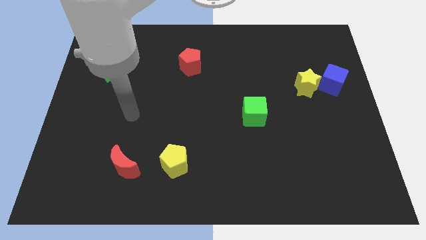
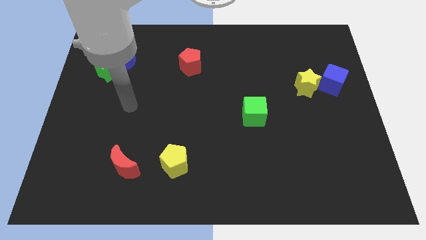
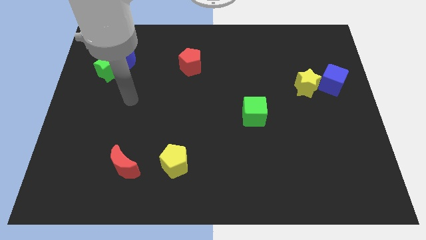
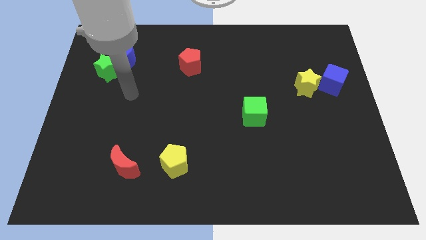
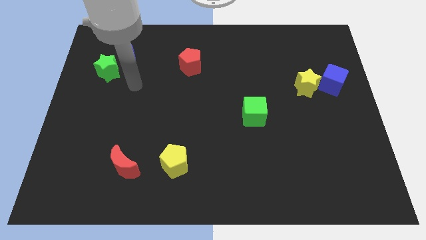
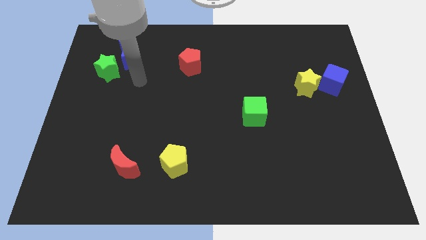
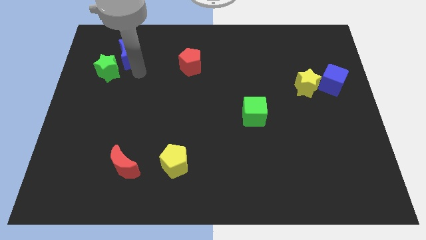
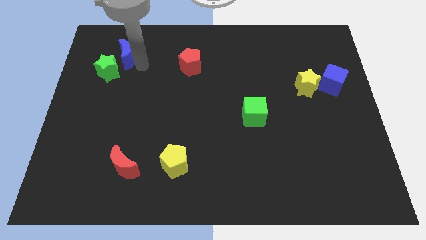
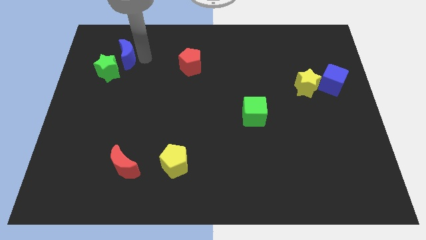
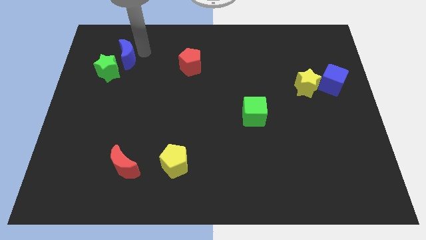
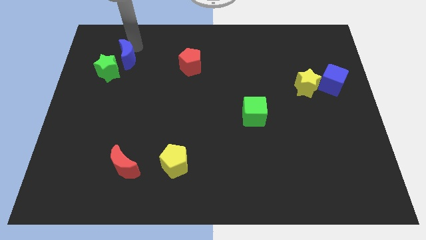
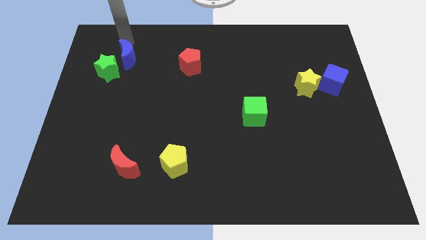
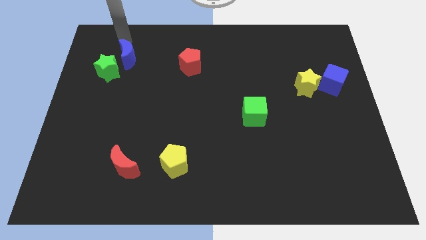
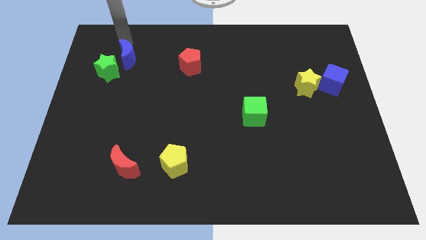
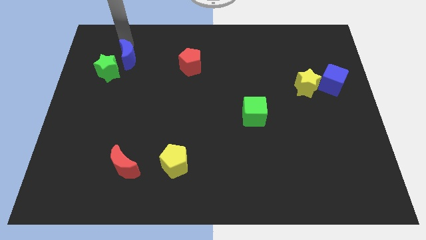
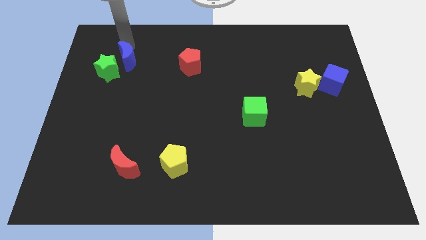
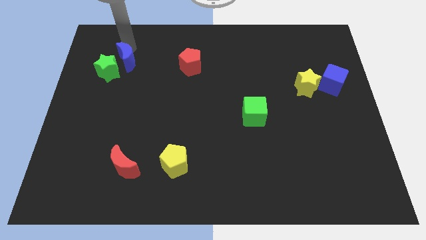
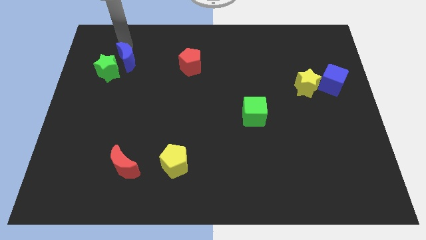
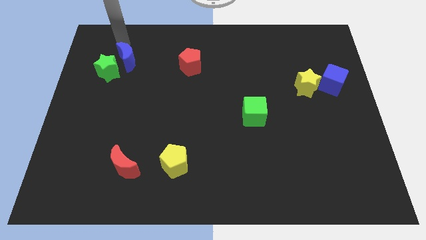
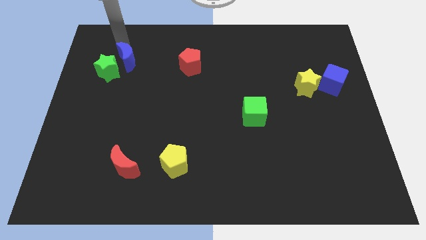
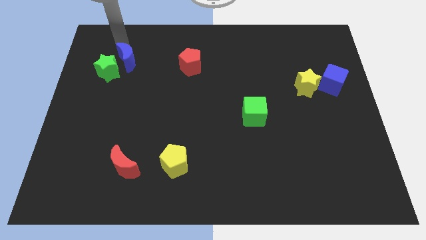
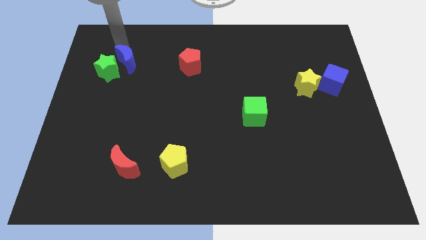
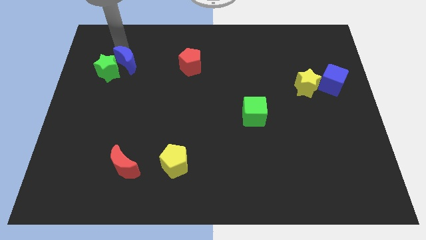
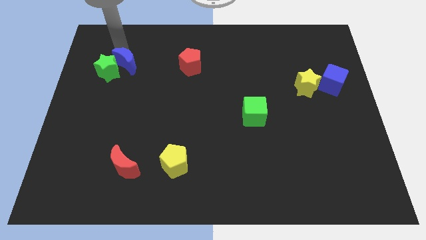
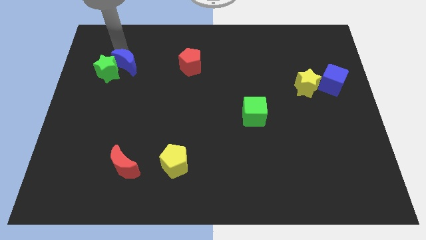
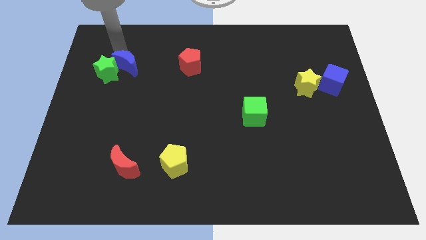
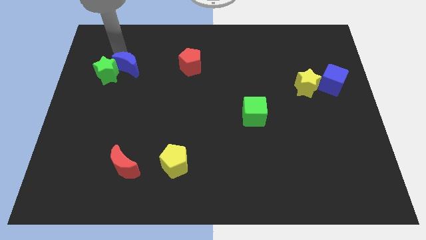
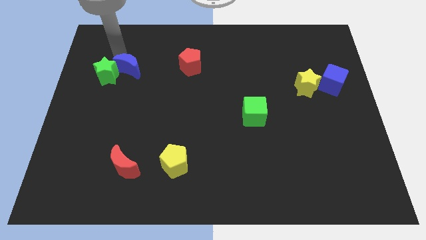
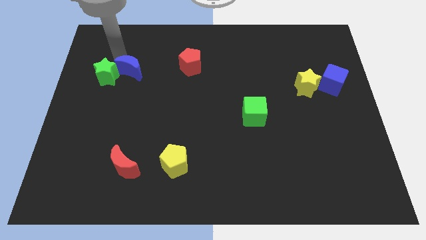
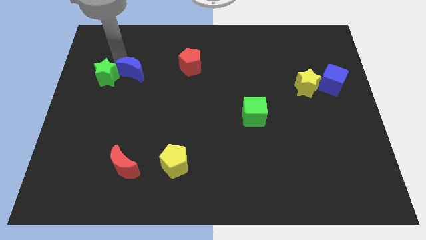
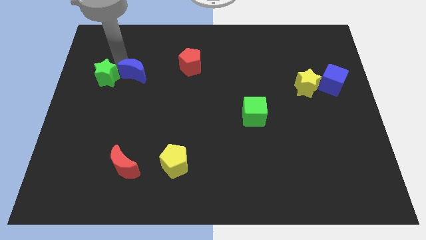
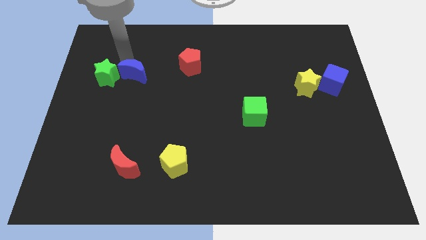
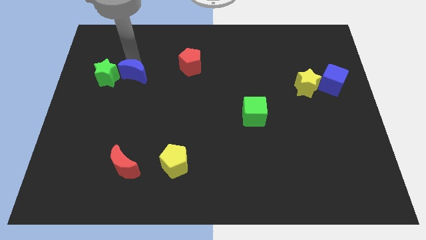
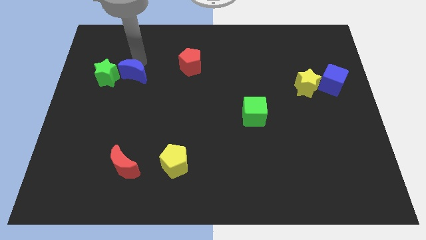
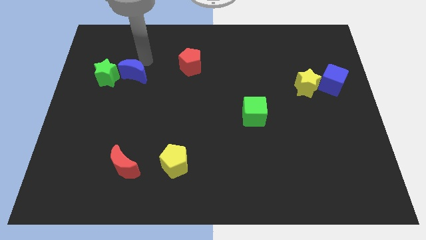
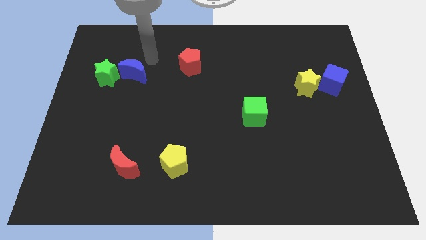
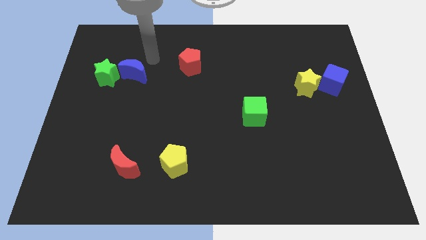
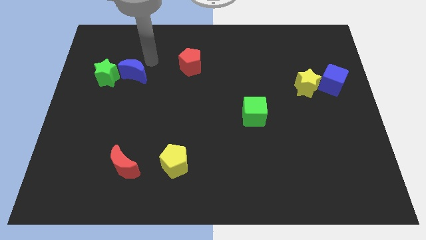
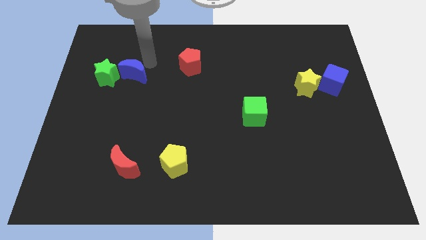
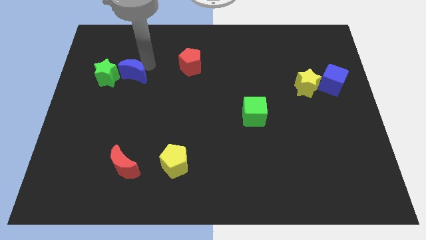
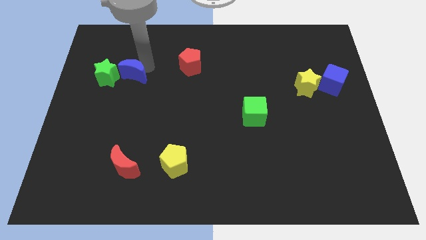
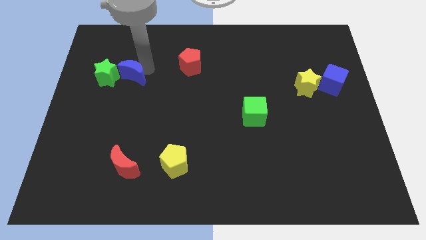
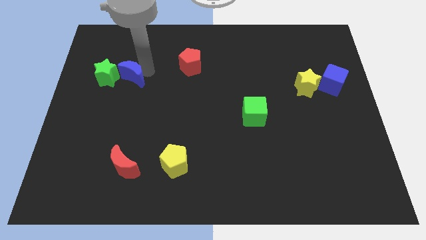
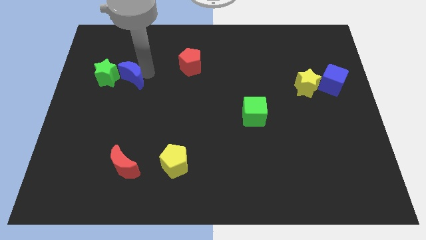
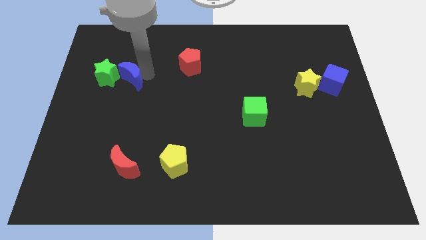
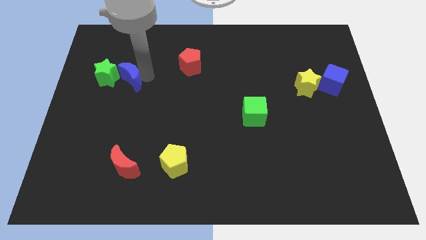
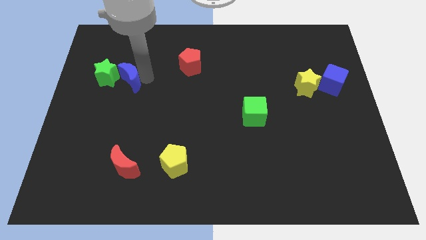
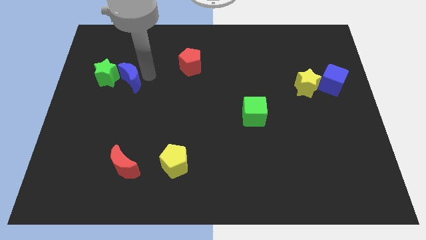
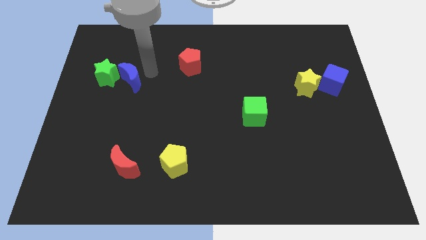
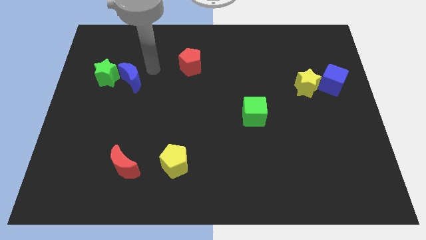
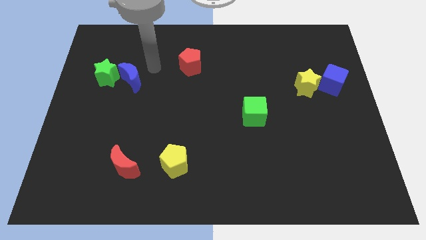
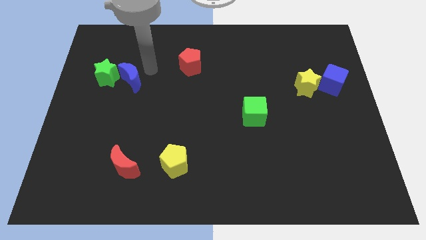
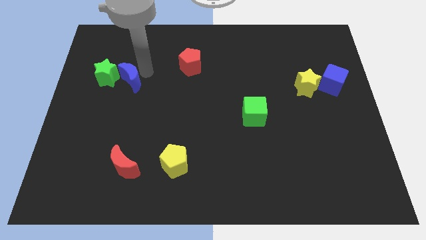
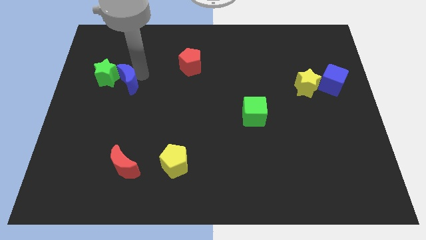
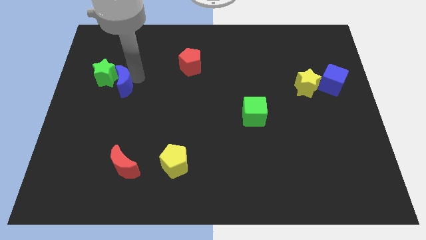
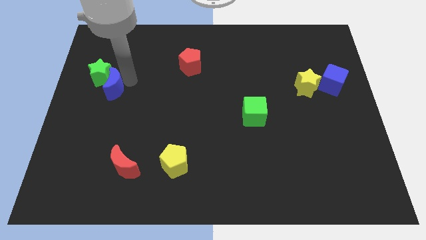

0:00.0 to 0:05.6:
slide the blue moon to the bottom of the green star

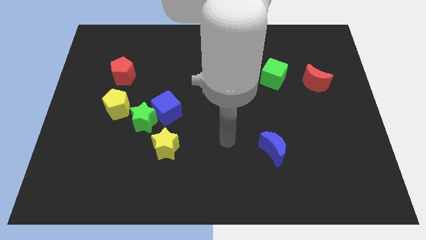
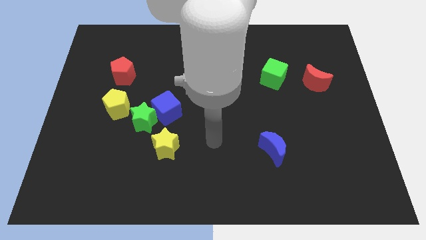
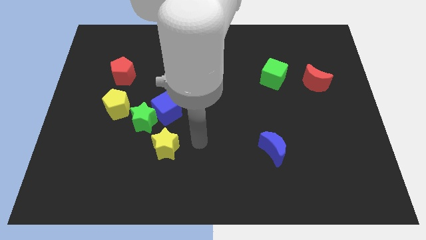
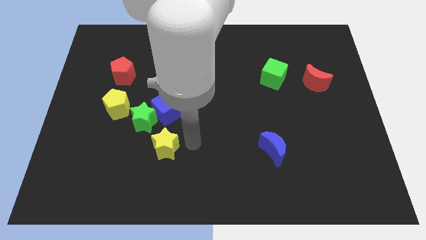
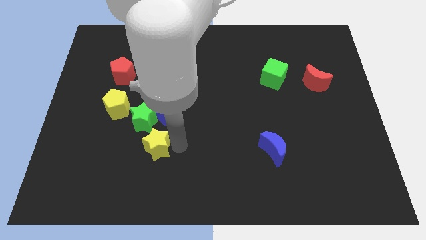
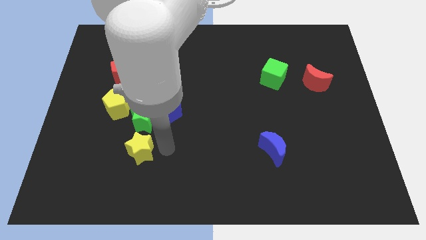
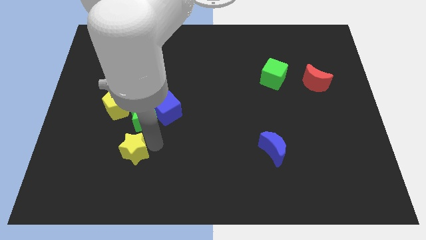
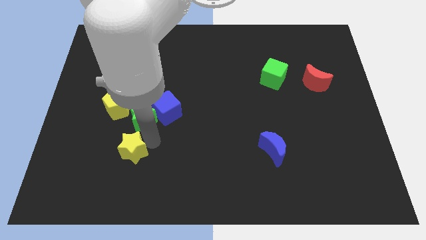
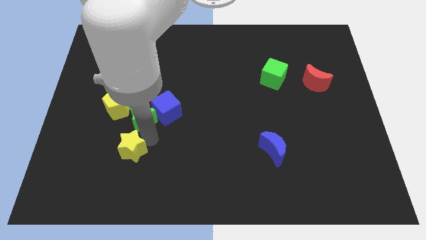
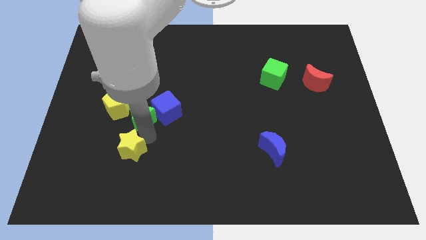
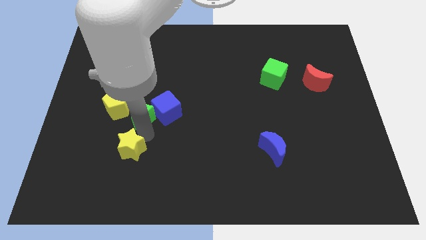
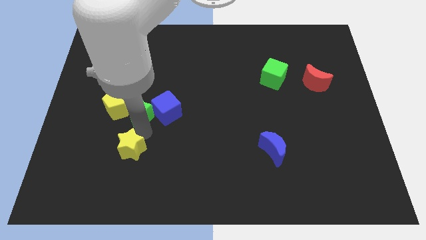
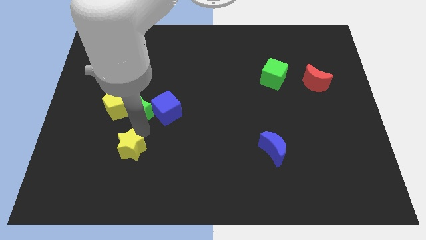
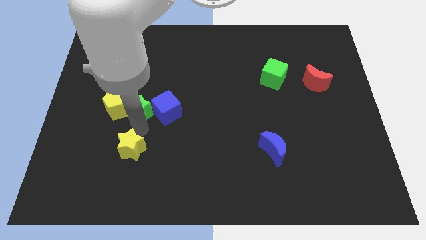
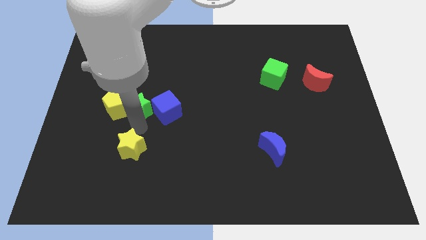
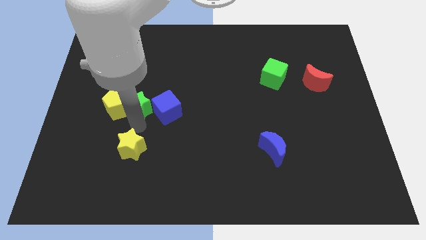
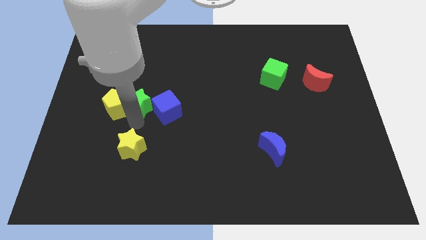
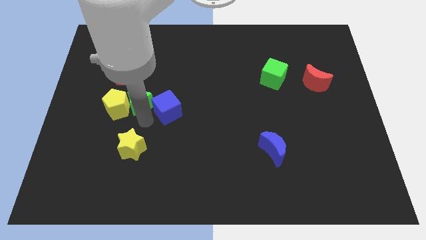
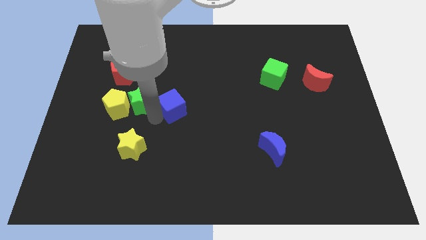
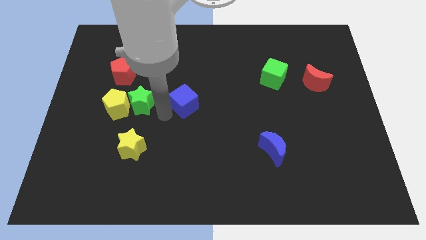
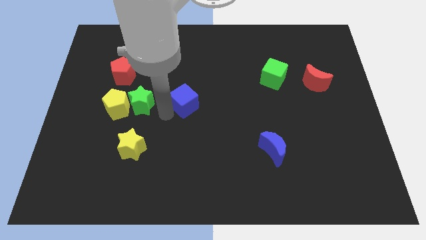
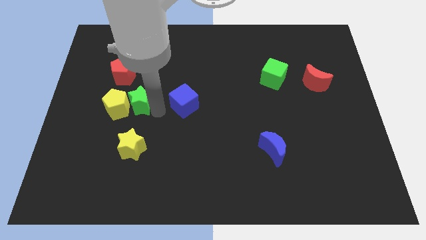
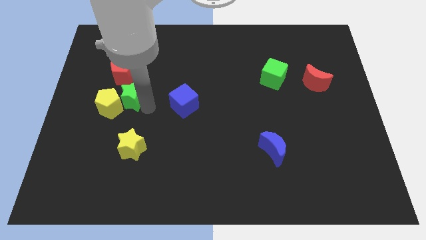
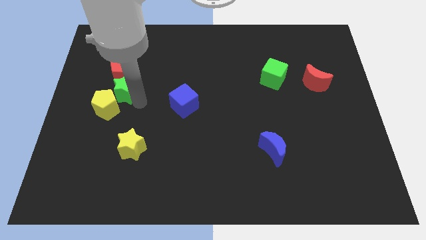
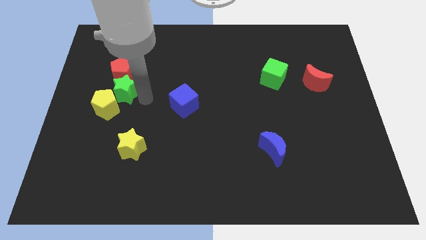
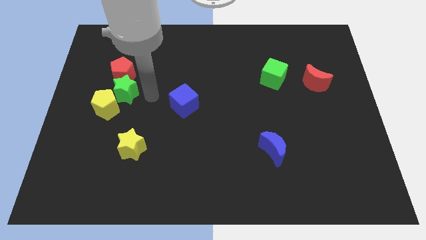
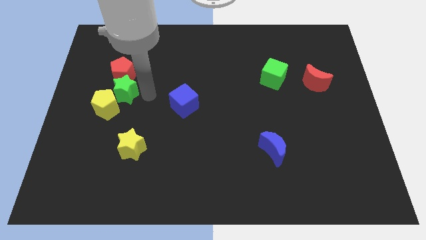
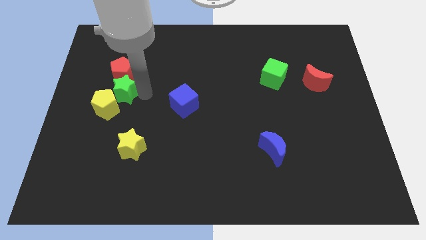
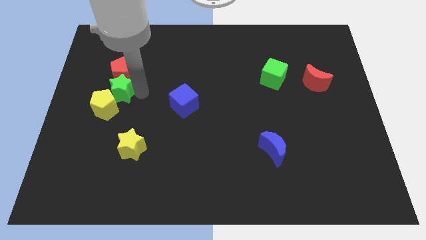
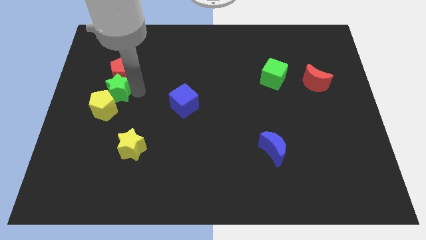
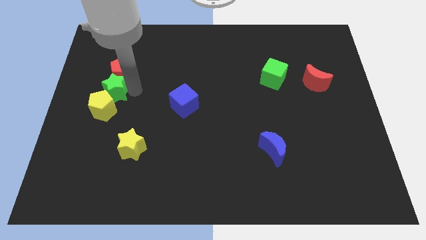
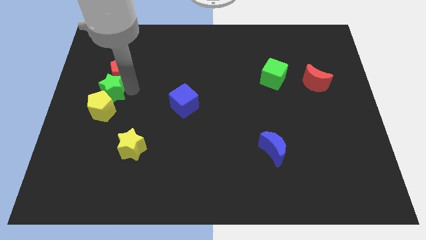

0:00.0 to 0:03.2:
push the green star to the top left of the yellow pentagon
